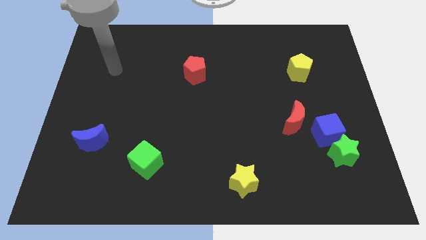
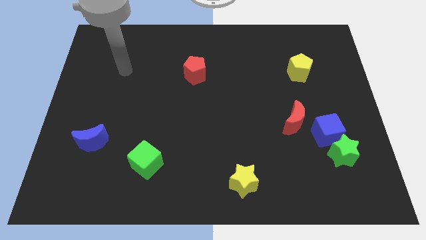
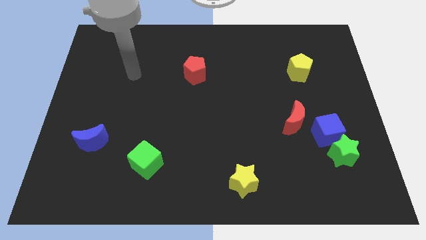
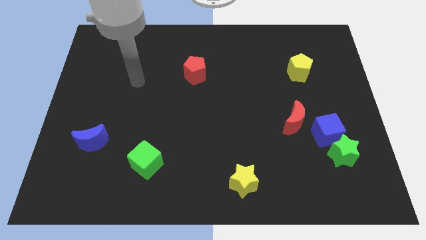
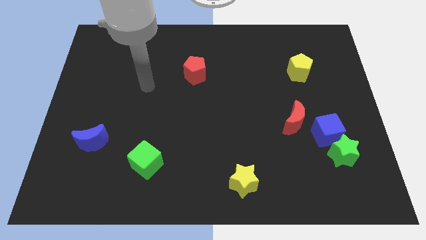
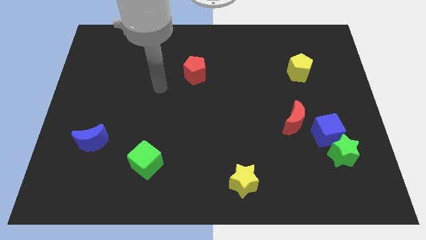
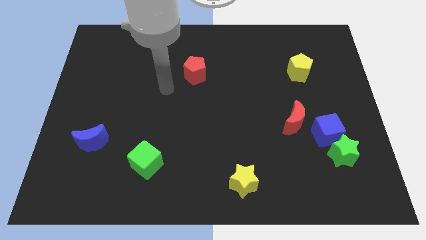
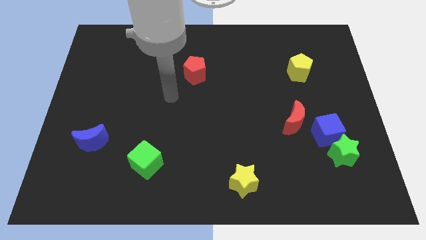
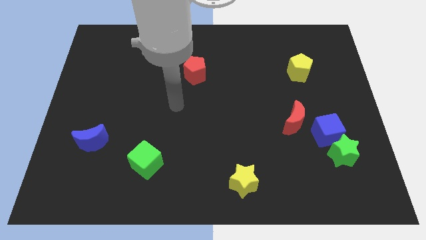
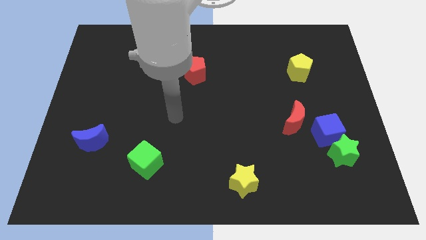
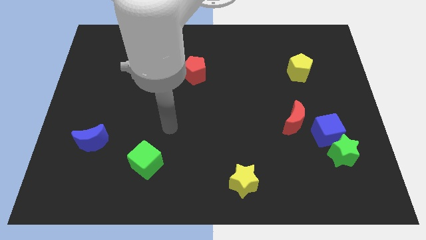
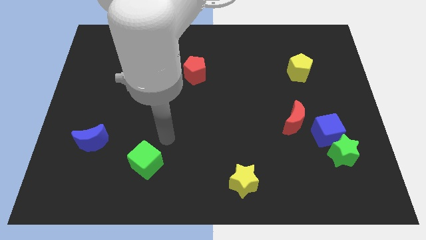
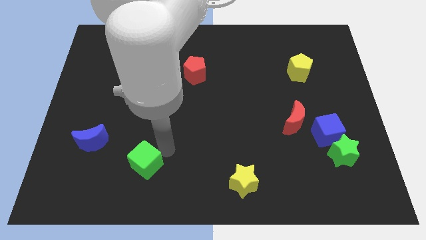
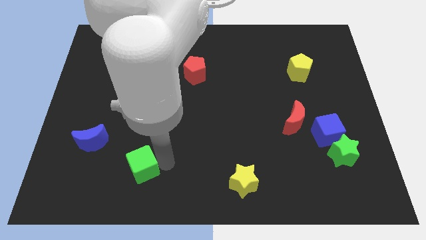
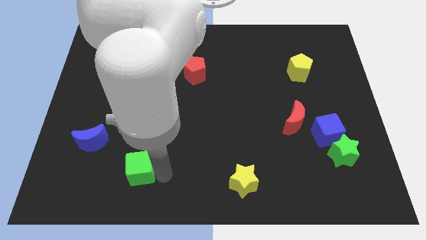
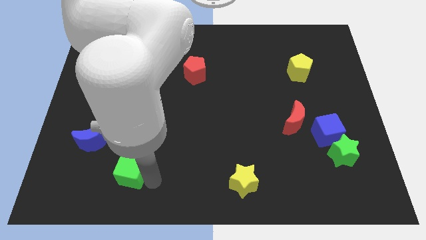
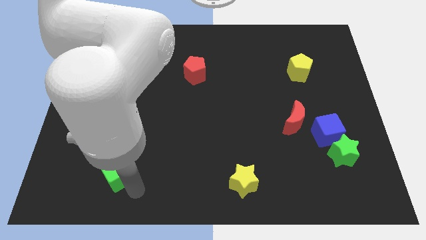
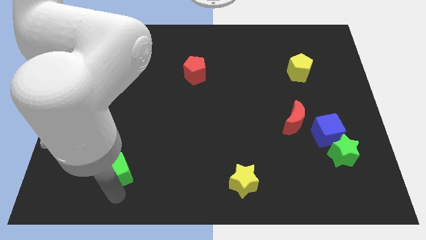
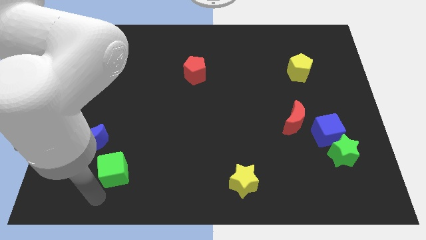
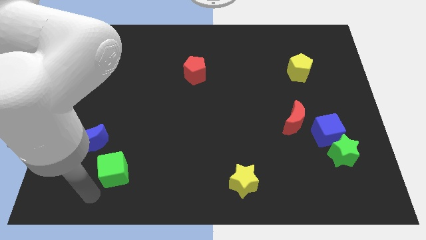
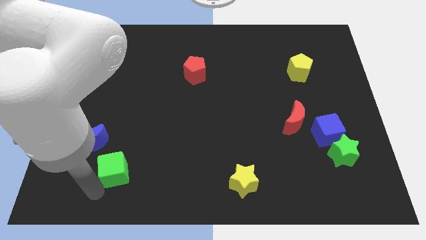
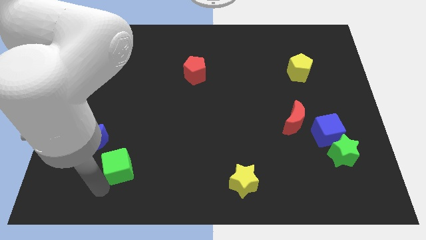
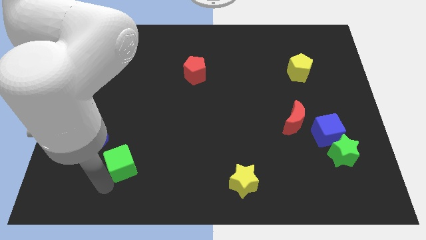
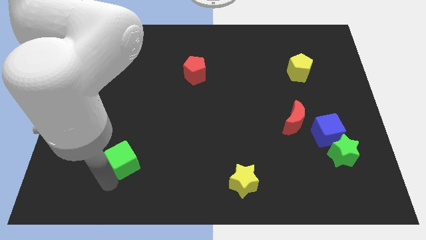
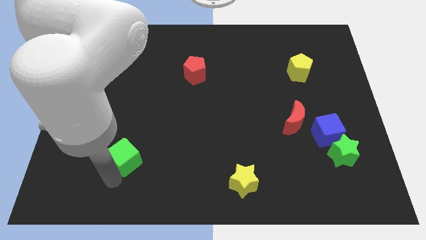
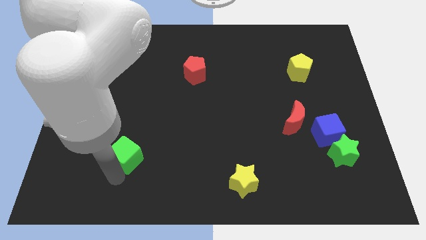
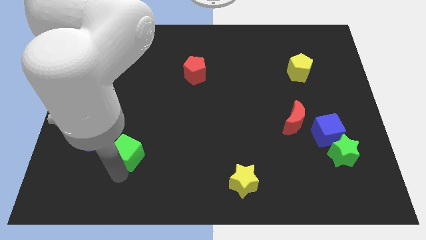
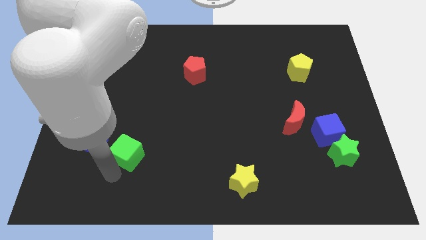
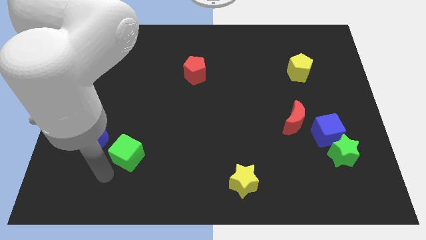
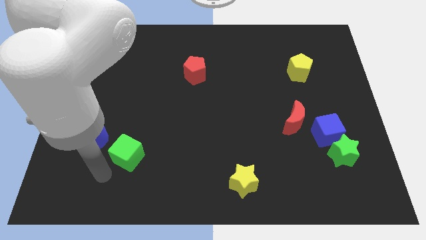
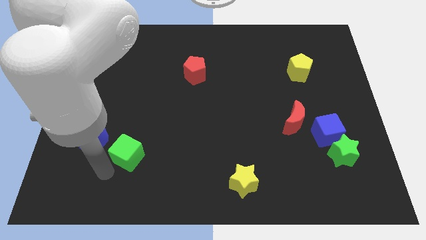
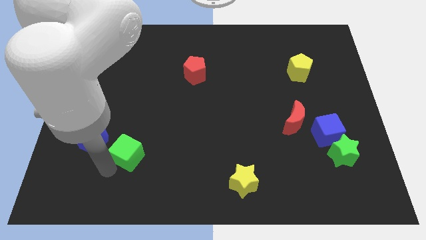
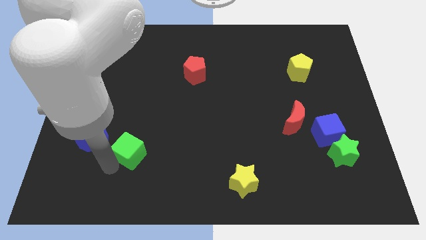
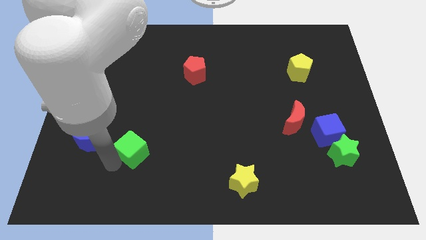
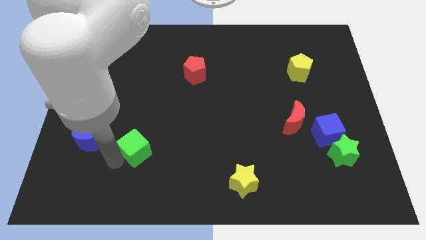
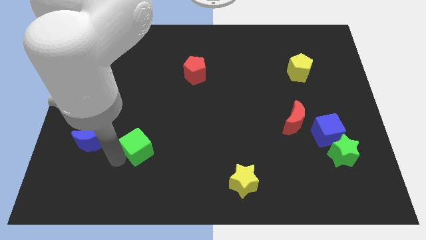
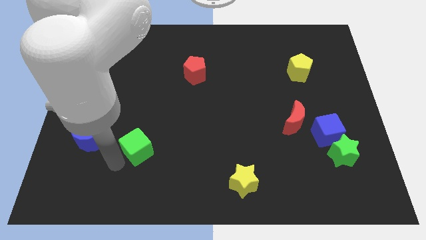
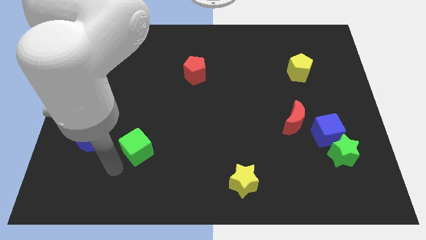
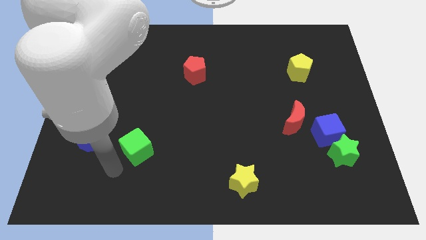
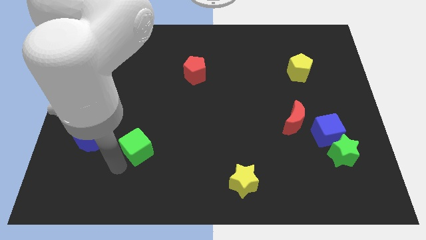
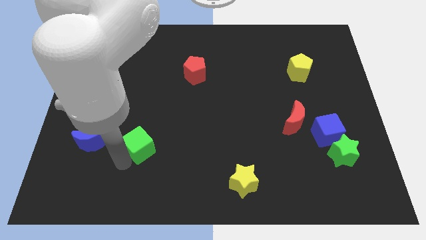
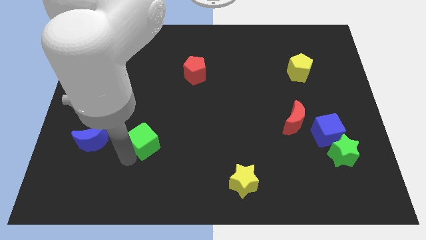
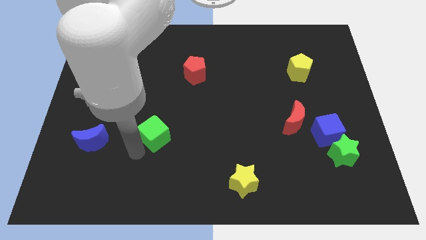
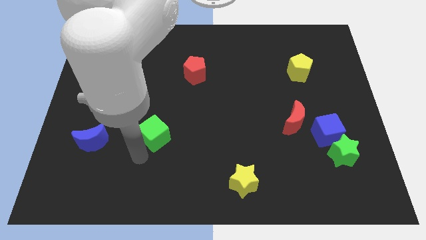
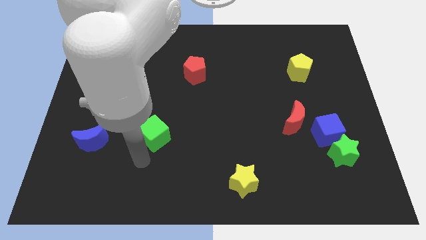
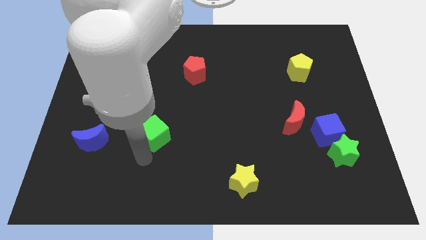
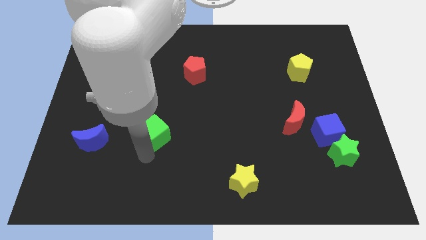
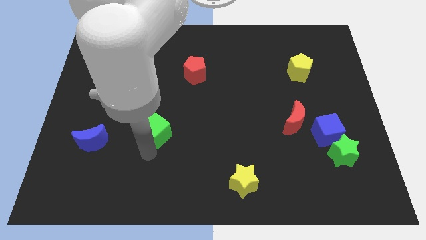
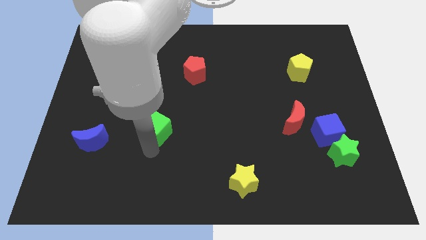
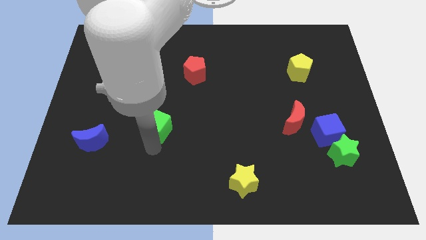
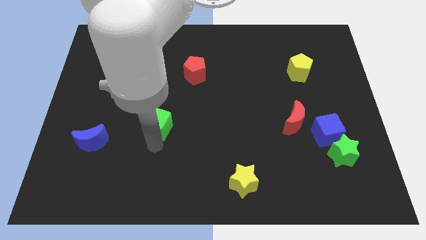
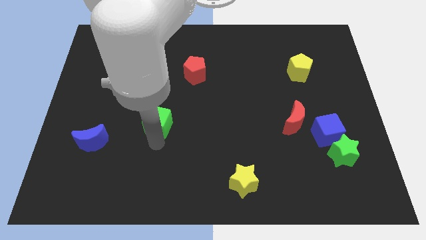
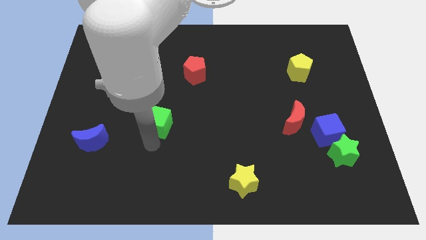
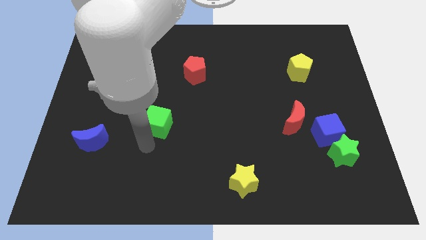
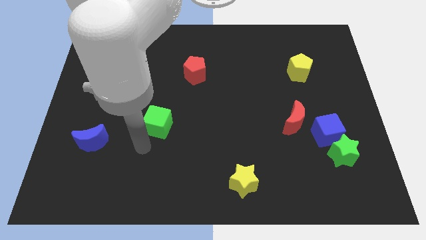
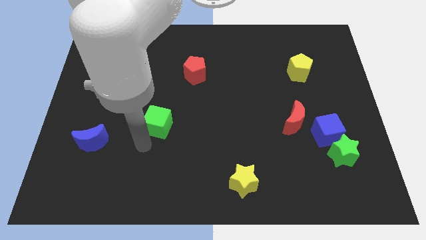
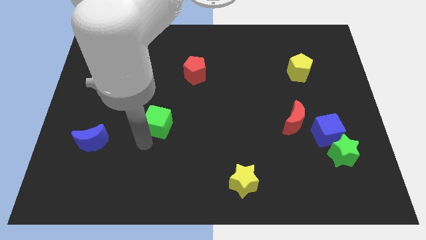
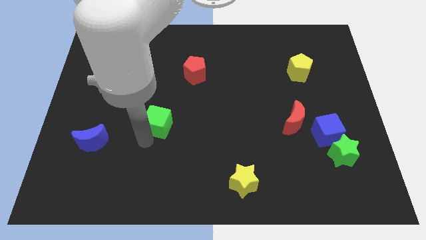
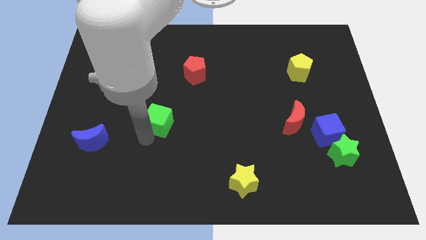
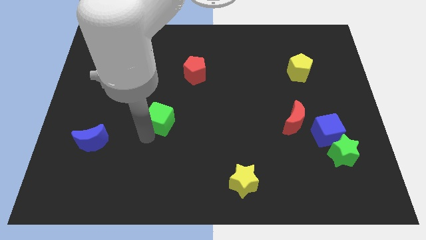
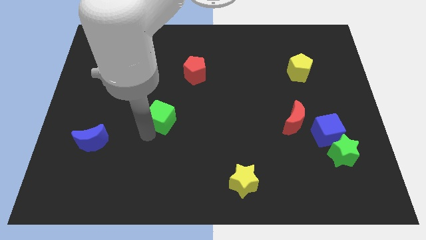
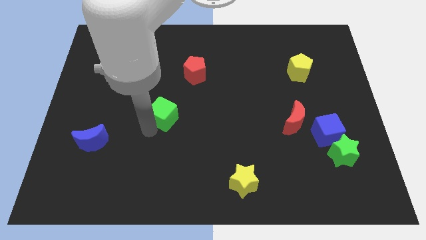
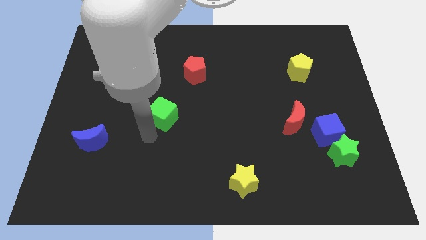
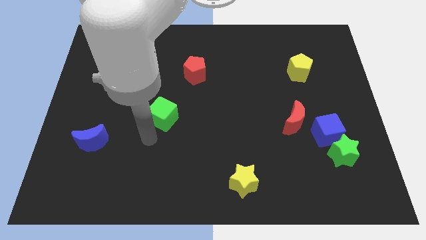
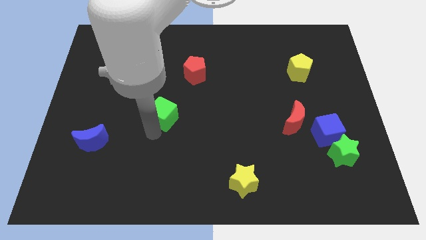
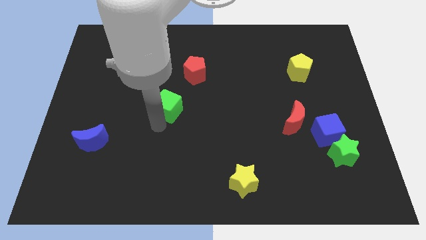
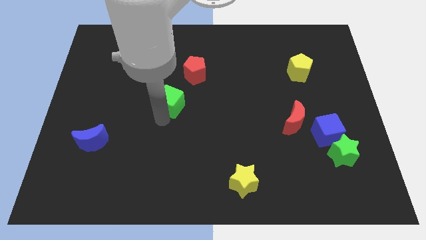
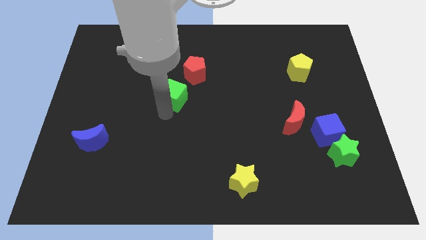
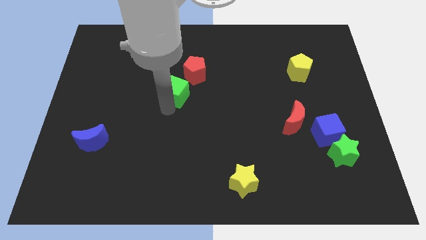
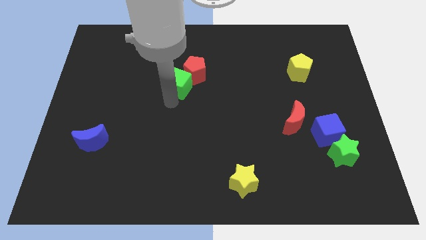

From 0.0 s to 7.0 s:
move the green cube to the red pentagon

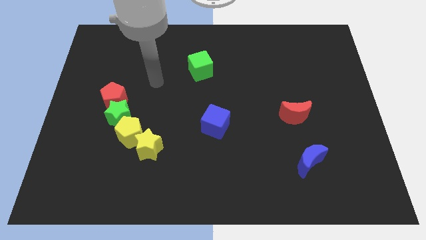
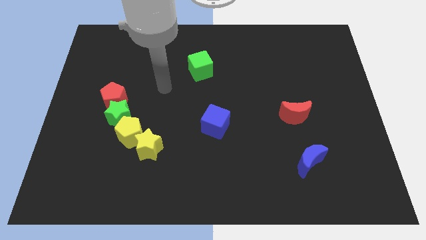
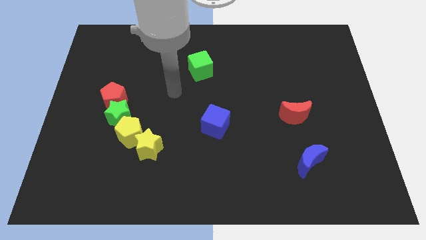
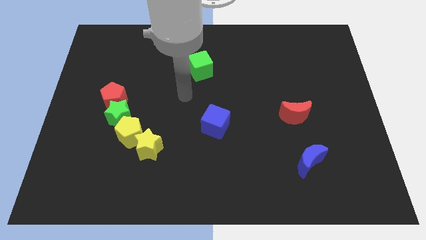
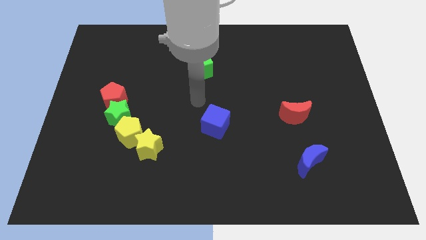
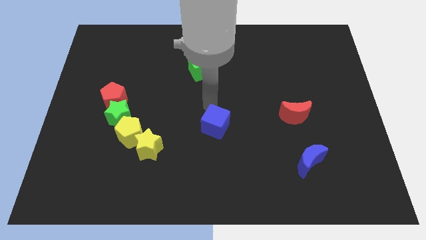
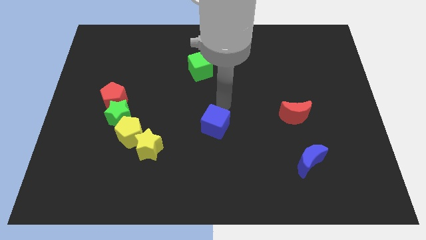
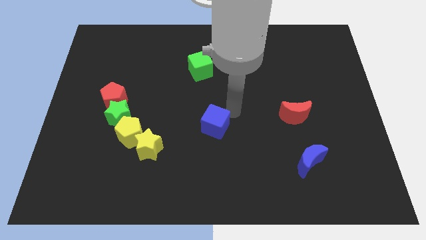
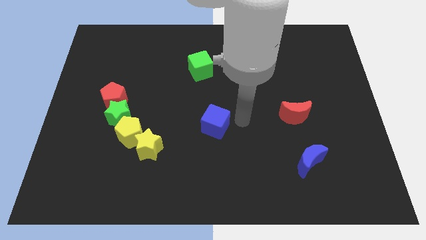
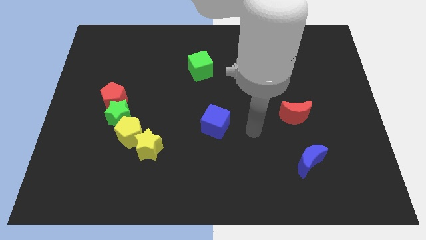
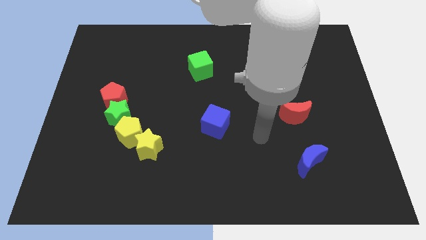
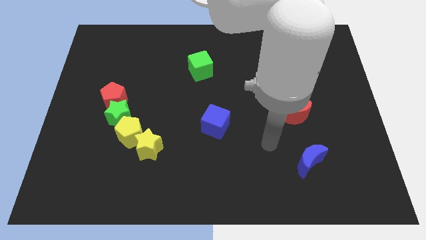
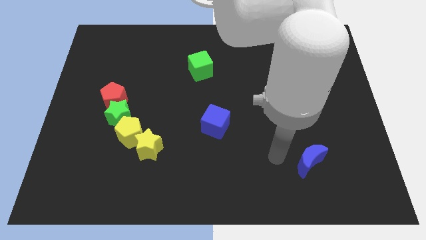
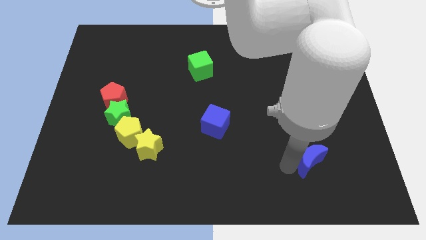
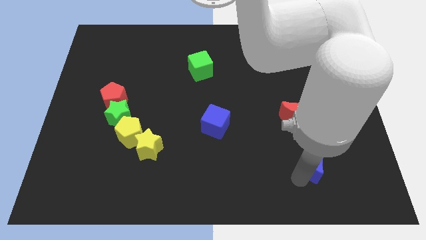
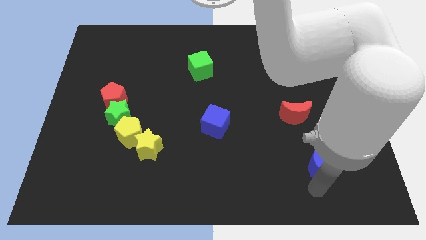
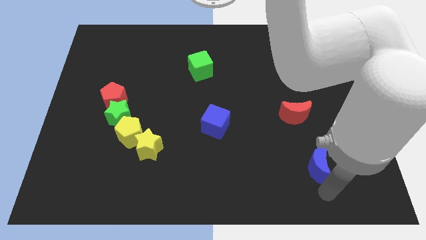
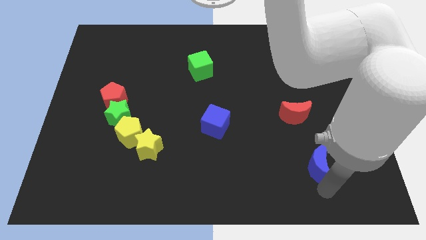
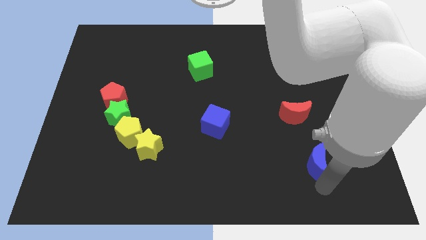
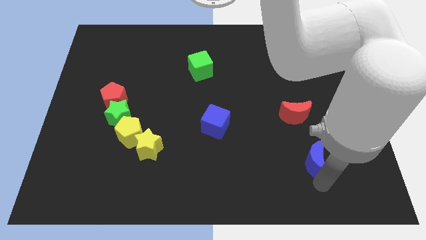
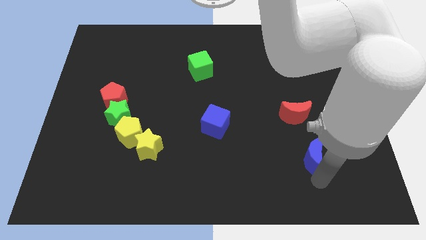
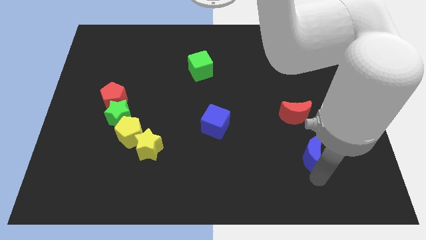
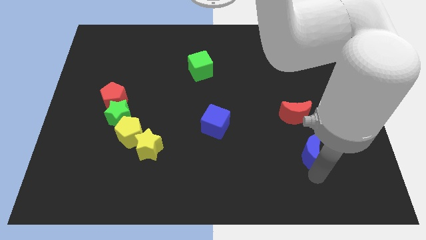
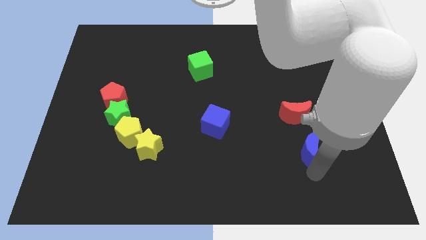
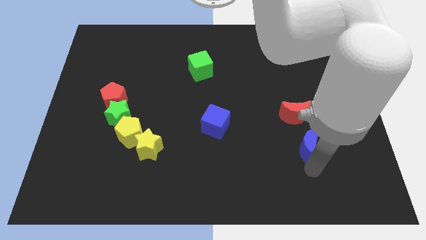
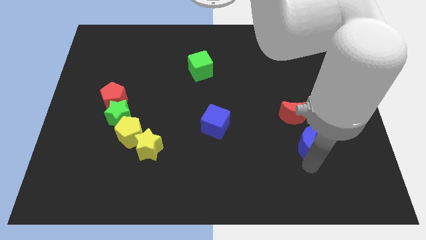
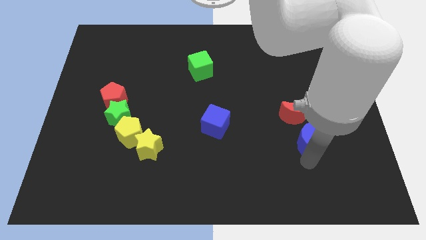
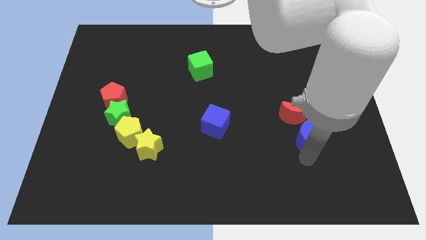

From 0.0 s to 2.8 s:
move the blue moon towards the red moon
